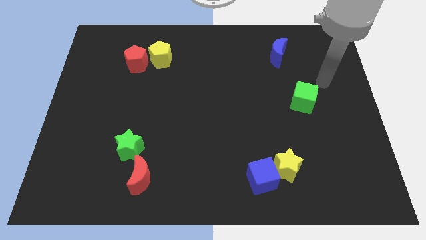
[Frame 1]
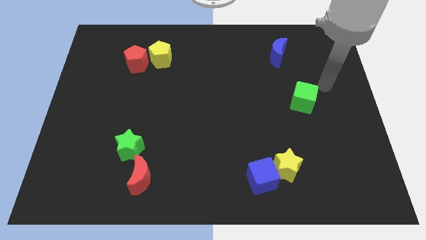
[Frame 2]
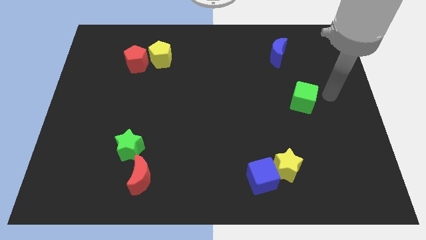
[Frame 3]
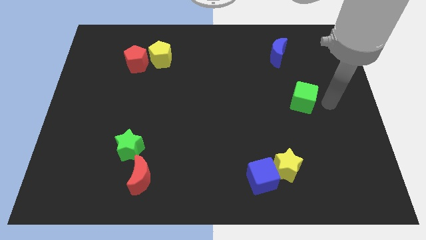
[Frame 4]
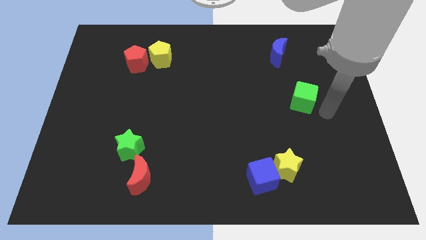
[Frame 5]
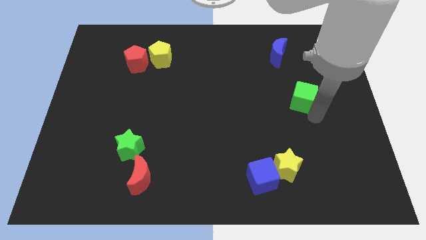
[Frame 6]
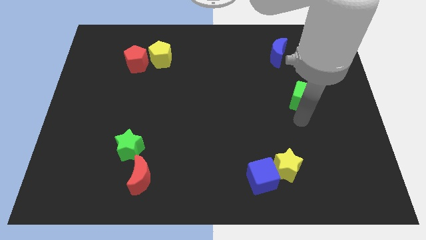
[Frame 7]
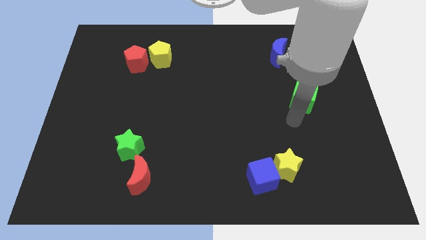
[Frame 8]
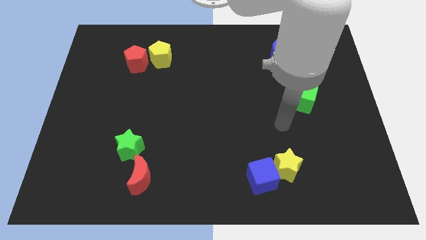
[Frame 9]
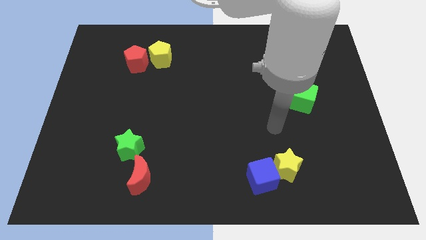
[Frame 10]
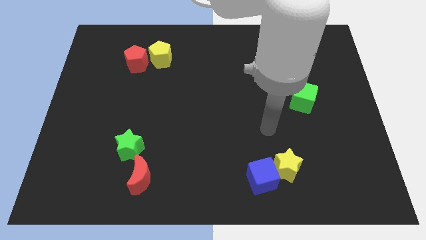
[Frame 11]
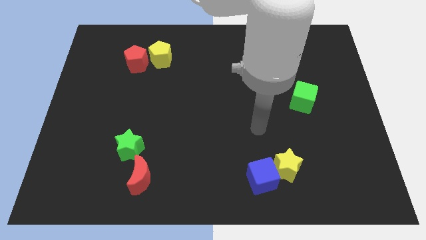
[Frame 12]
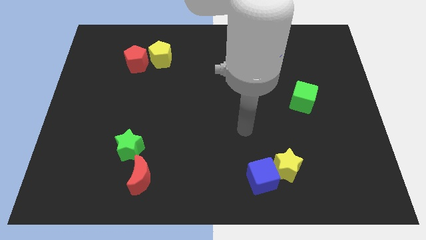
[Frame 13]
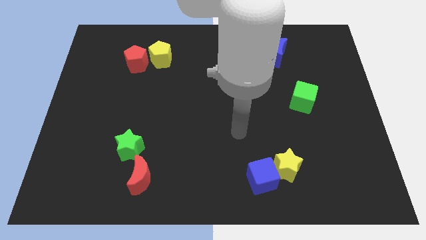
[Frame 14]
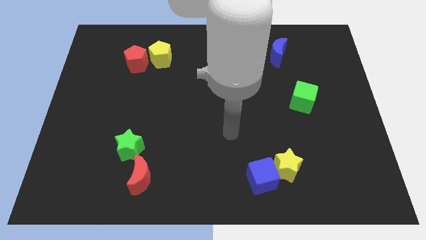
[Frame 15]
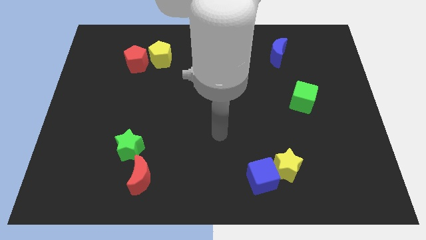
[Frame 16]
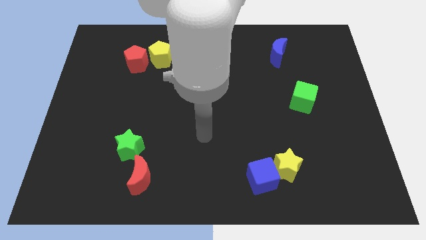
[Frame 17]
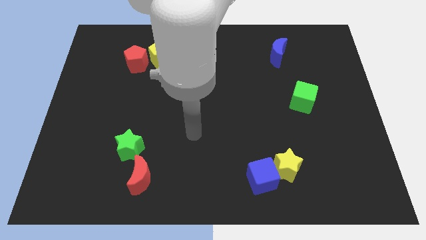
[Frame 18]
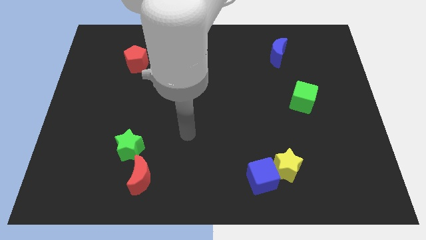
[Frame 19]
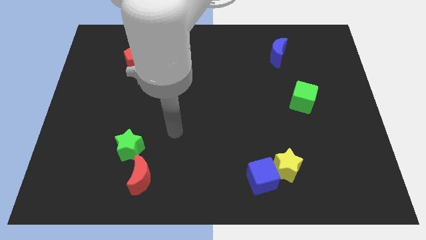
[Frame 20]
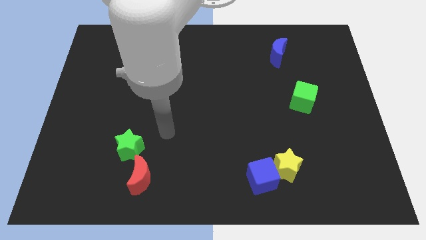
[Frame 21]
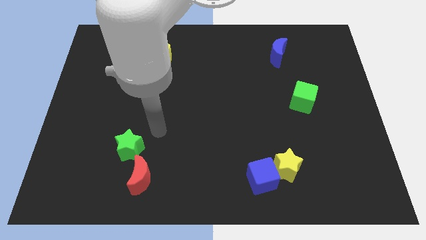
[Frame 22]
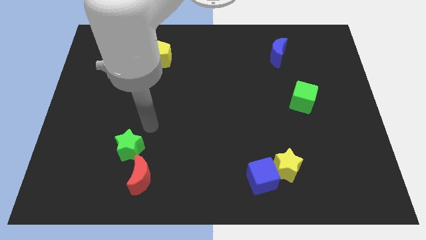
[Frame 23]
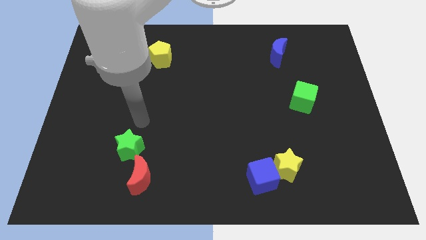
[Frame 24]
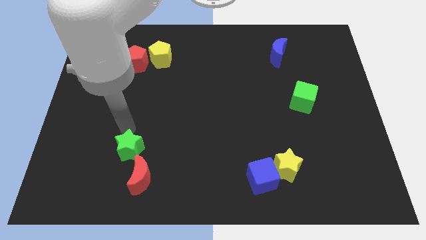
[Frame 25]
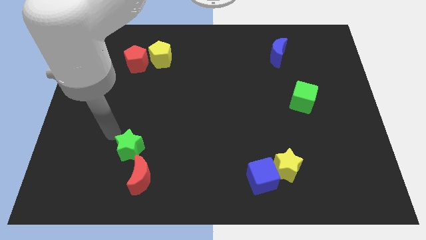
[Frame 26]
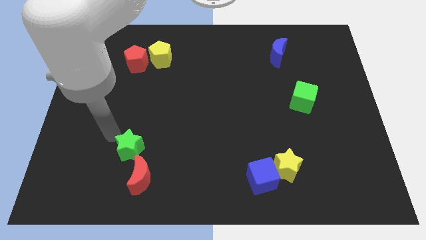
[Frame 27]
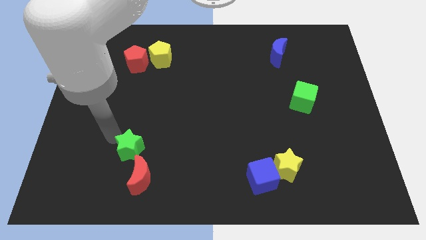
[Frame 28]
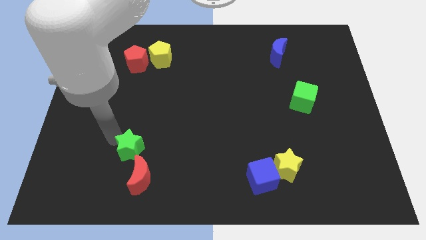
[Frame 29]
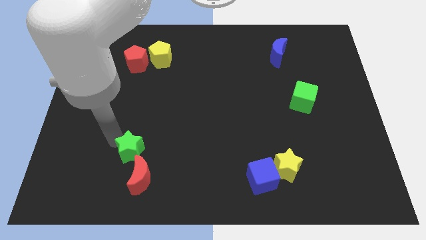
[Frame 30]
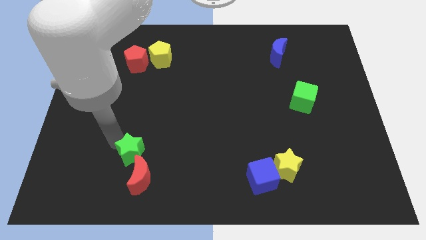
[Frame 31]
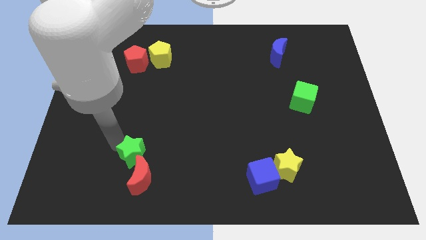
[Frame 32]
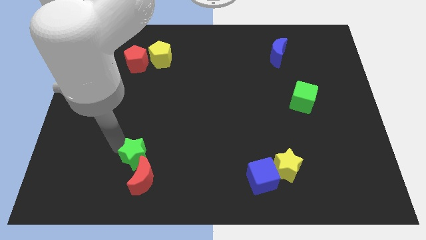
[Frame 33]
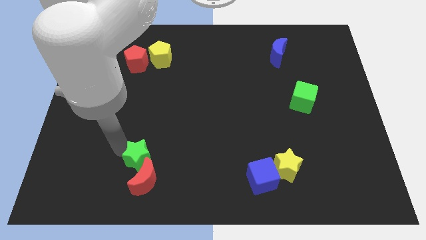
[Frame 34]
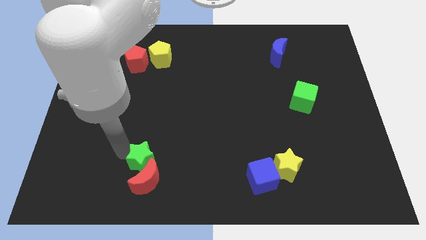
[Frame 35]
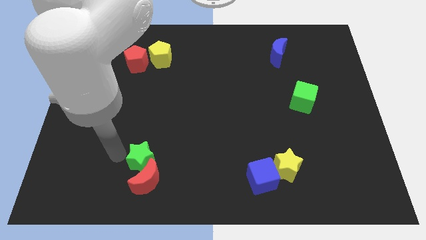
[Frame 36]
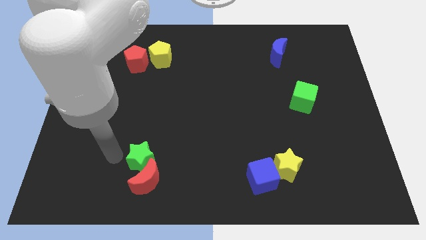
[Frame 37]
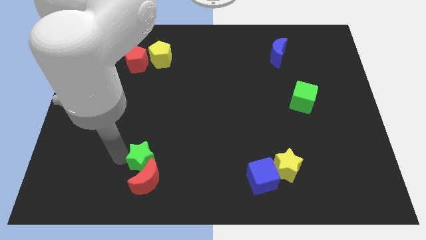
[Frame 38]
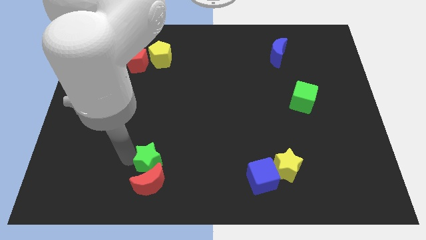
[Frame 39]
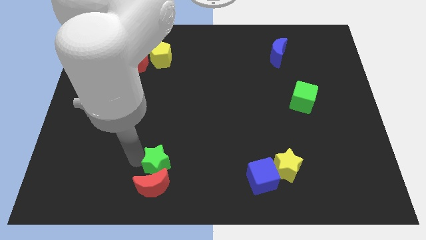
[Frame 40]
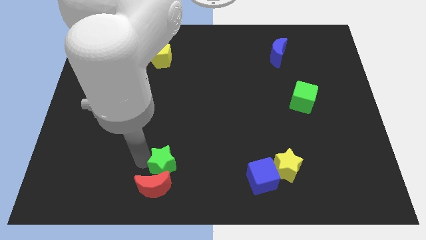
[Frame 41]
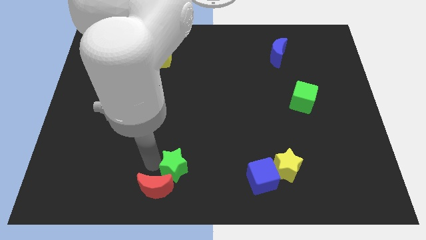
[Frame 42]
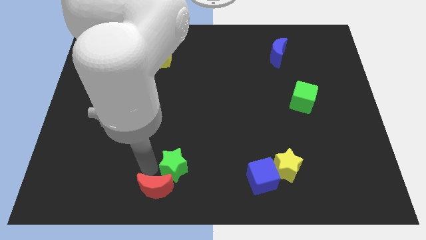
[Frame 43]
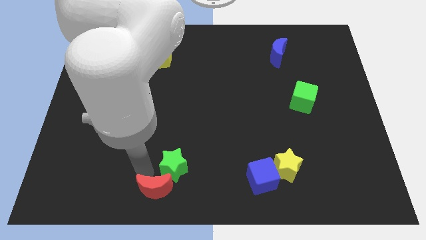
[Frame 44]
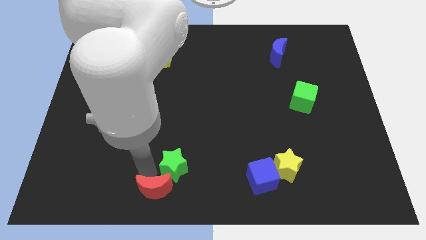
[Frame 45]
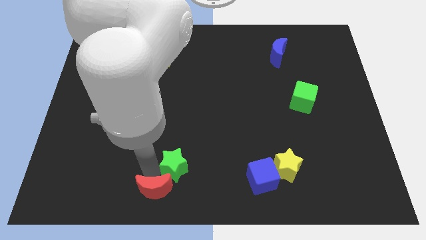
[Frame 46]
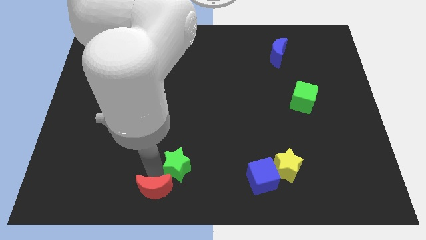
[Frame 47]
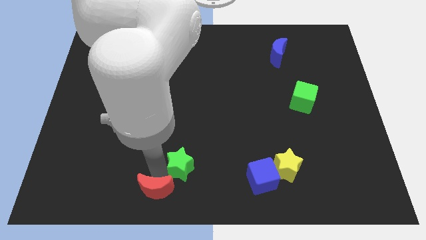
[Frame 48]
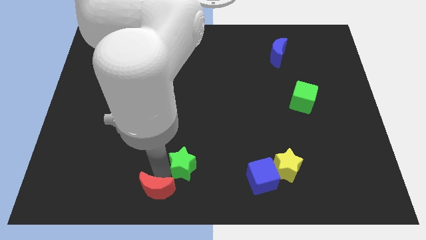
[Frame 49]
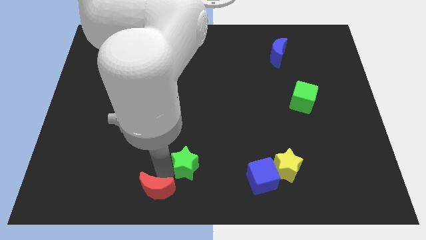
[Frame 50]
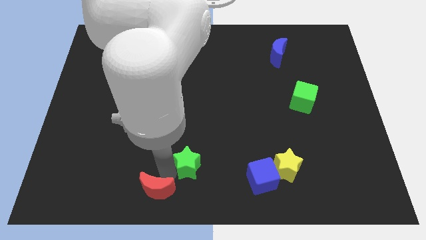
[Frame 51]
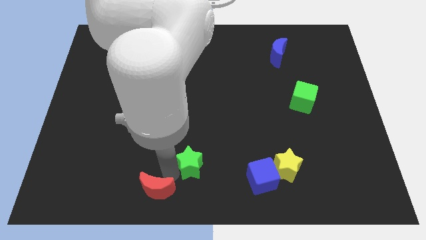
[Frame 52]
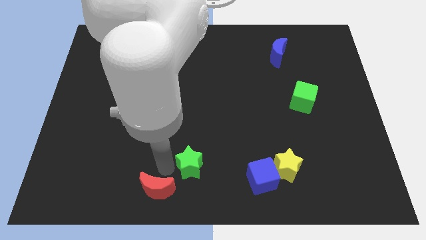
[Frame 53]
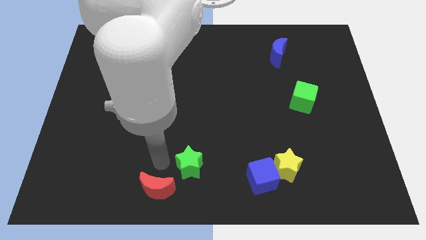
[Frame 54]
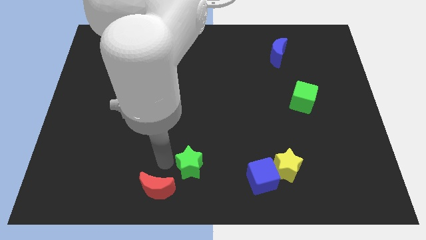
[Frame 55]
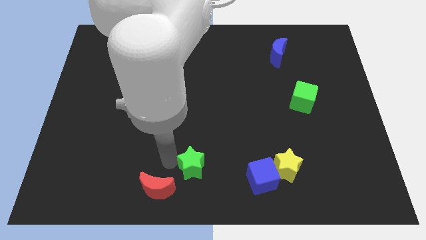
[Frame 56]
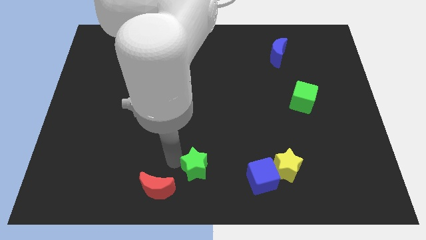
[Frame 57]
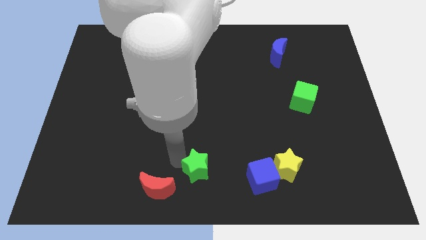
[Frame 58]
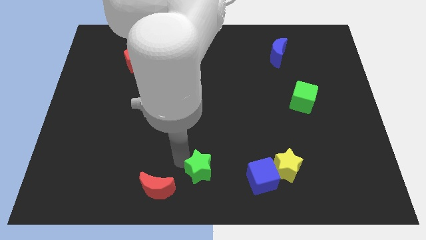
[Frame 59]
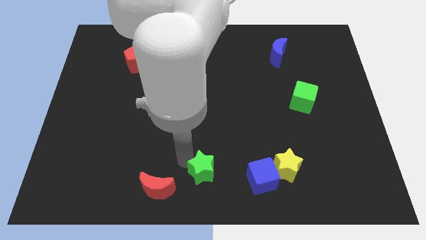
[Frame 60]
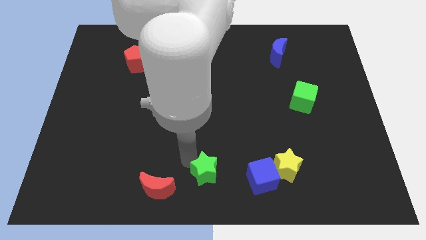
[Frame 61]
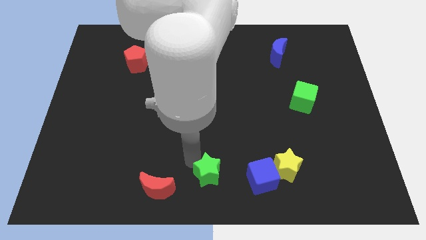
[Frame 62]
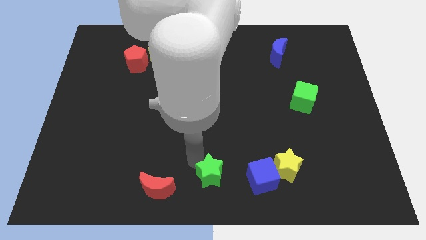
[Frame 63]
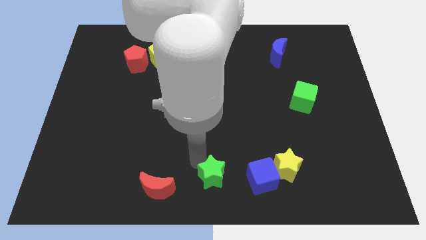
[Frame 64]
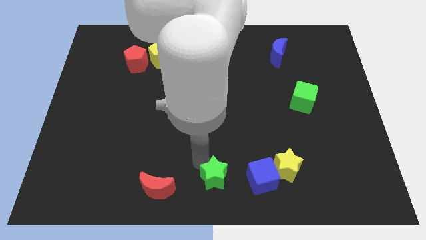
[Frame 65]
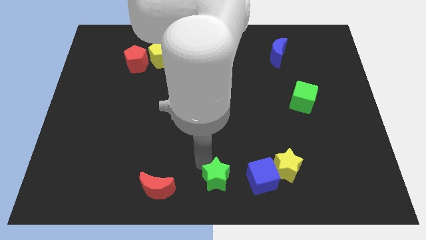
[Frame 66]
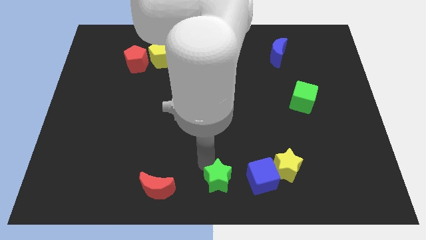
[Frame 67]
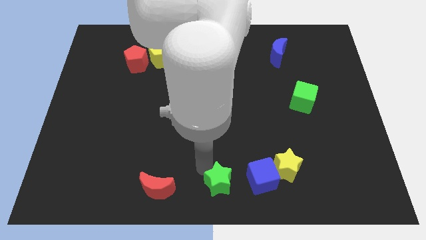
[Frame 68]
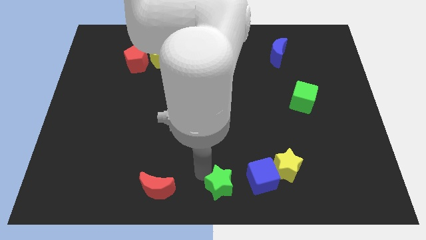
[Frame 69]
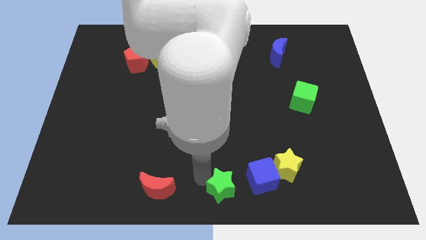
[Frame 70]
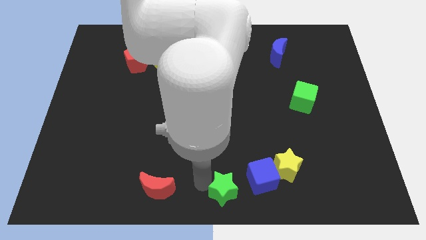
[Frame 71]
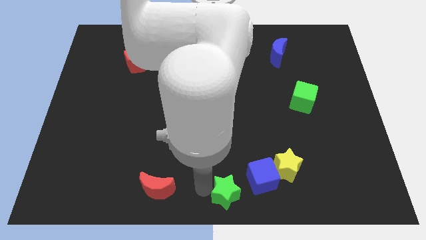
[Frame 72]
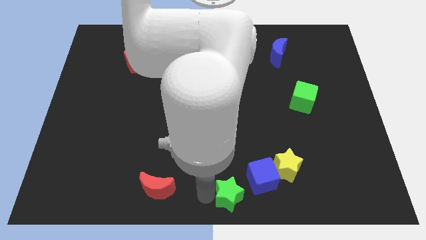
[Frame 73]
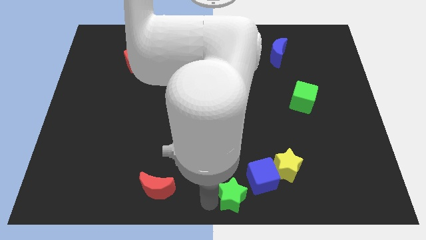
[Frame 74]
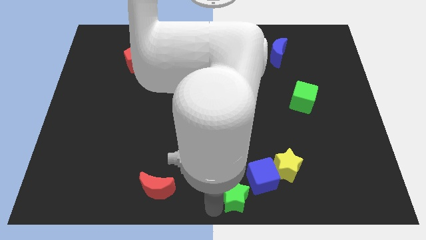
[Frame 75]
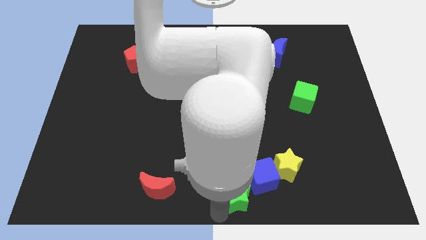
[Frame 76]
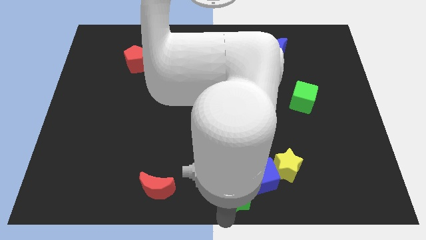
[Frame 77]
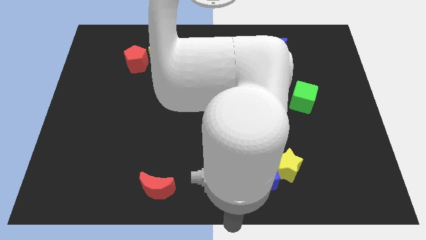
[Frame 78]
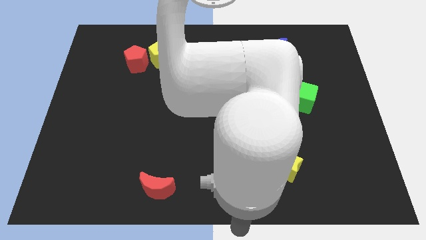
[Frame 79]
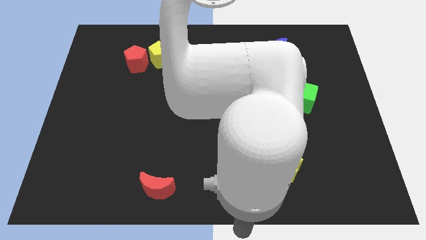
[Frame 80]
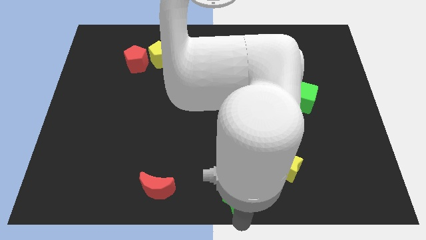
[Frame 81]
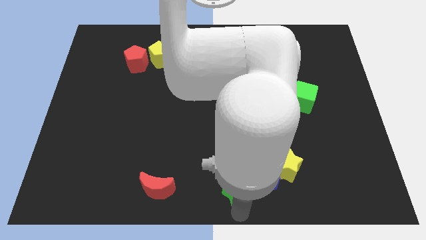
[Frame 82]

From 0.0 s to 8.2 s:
put the green star to the blue cube
